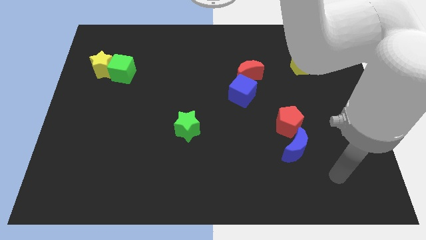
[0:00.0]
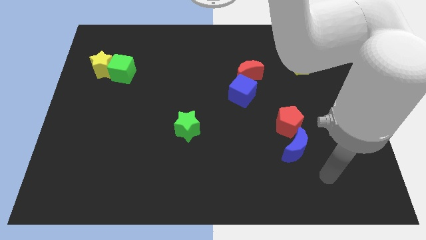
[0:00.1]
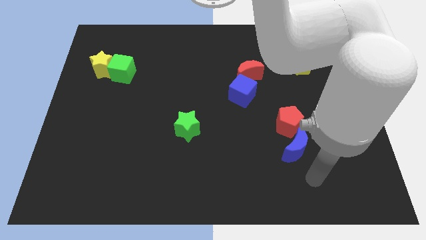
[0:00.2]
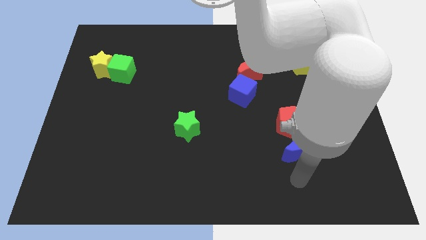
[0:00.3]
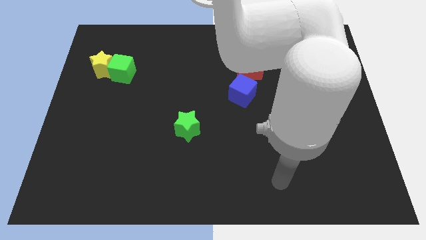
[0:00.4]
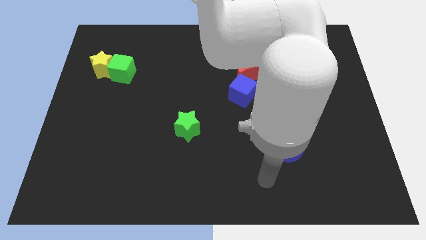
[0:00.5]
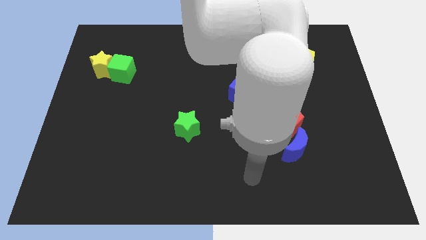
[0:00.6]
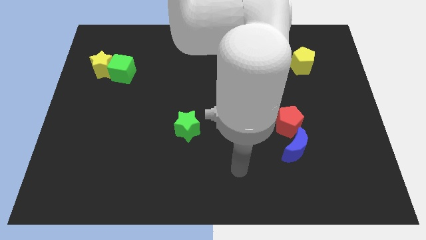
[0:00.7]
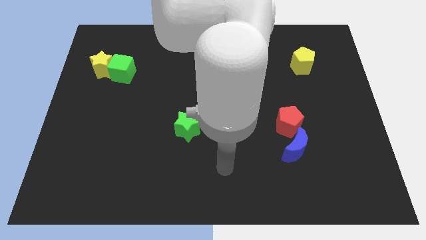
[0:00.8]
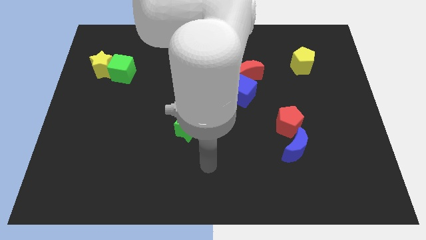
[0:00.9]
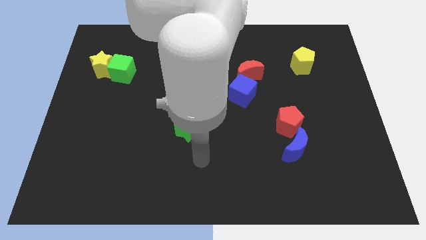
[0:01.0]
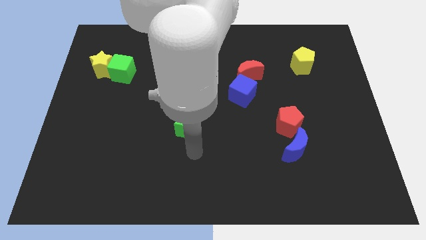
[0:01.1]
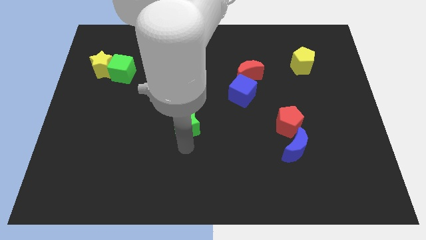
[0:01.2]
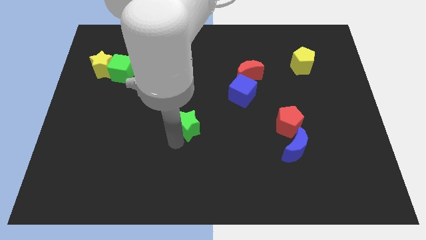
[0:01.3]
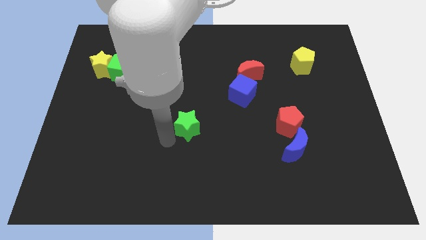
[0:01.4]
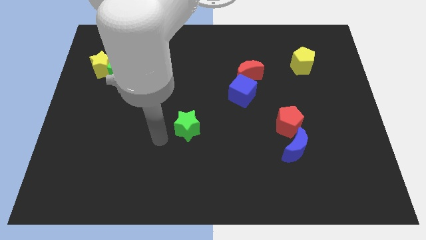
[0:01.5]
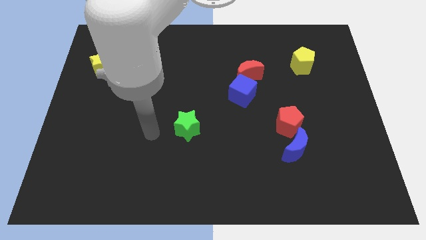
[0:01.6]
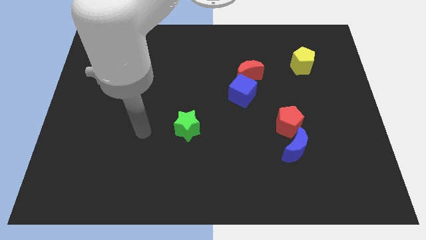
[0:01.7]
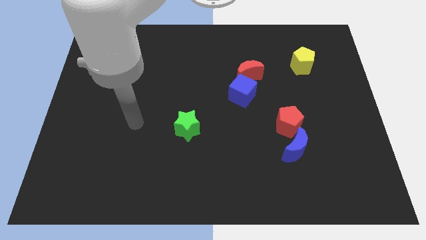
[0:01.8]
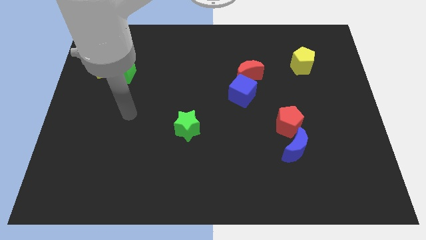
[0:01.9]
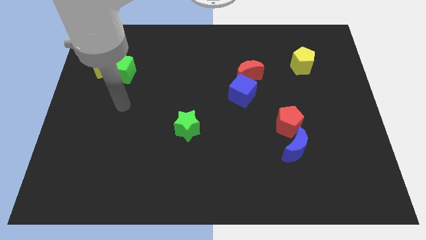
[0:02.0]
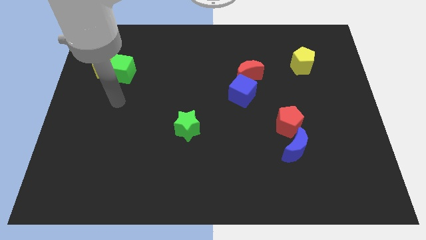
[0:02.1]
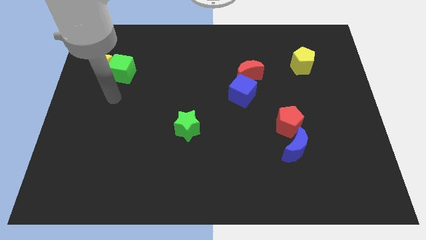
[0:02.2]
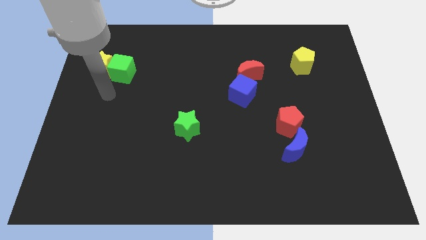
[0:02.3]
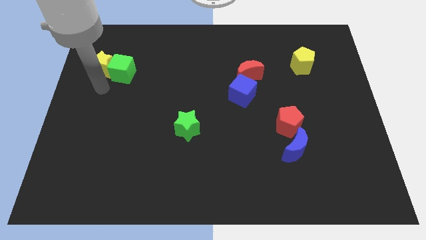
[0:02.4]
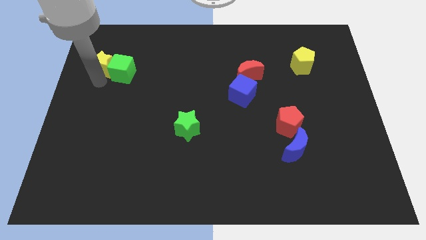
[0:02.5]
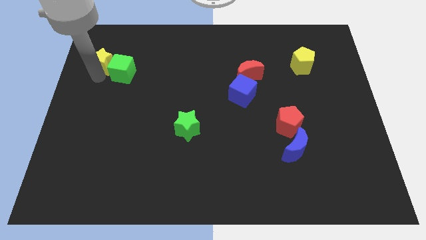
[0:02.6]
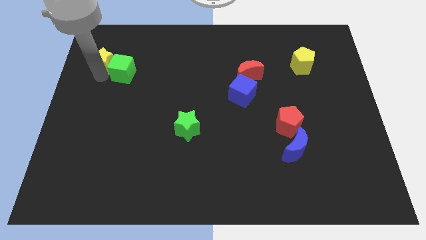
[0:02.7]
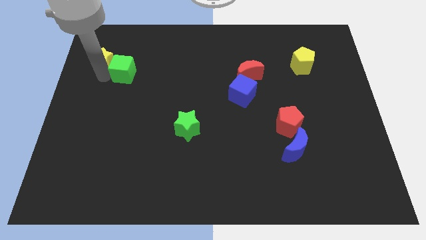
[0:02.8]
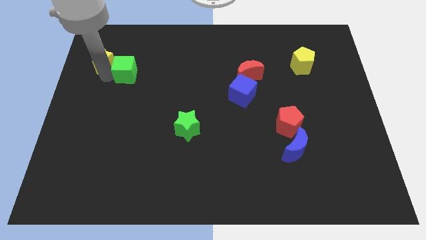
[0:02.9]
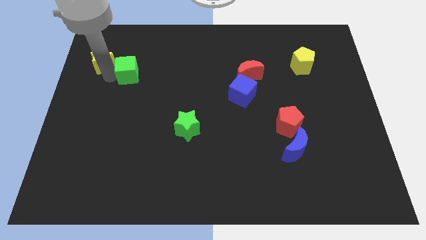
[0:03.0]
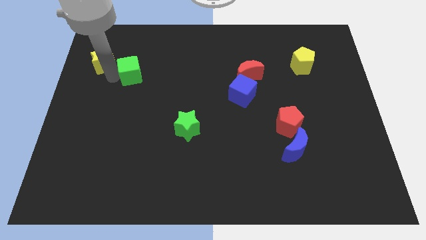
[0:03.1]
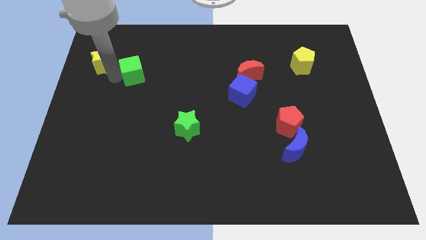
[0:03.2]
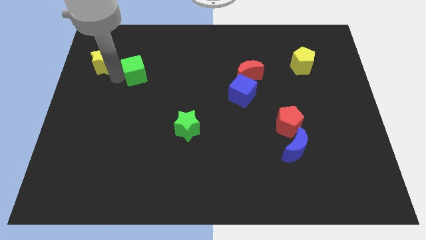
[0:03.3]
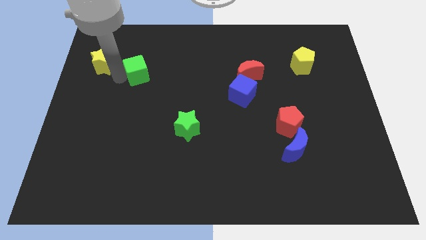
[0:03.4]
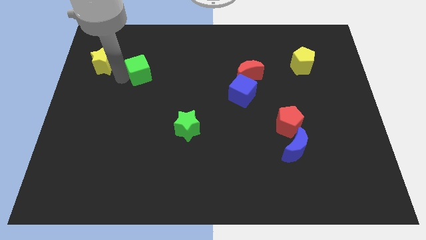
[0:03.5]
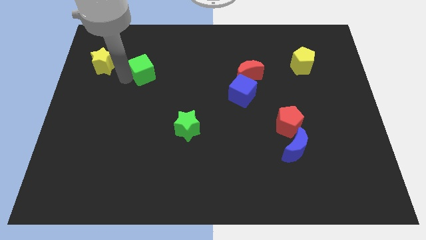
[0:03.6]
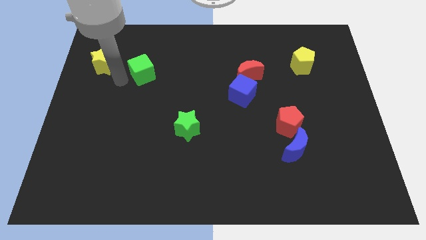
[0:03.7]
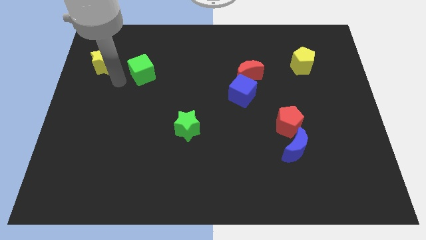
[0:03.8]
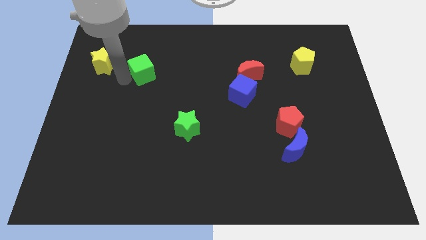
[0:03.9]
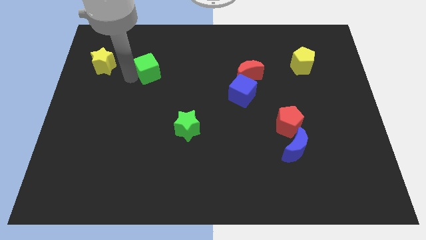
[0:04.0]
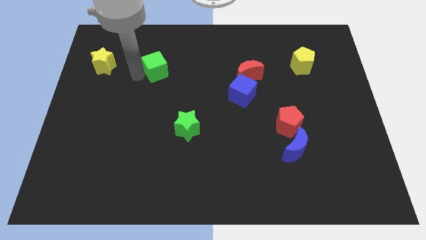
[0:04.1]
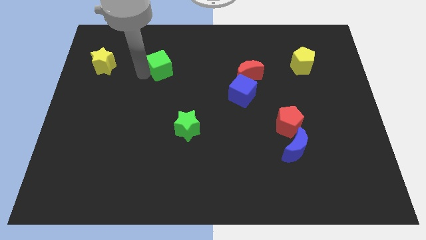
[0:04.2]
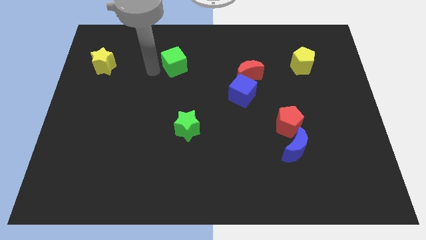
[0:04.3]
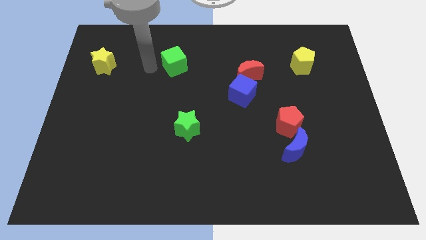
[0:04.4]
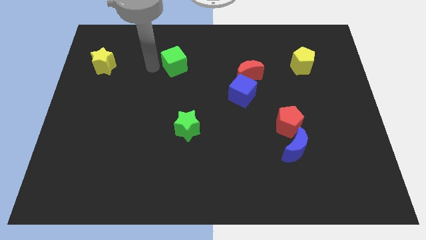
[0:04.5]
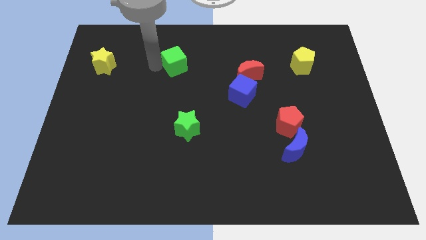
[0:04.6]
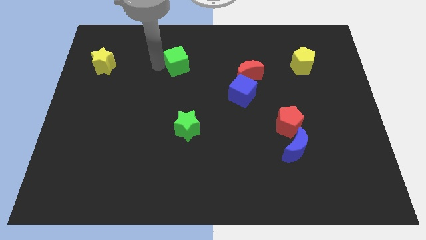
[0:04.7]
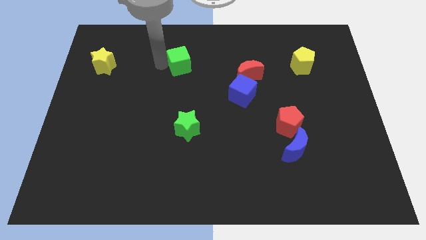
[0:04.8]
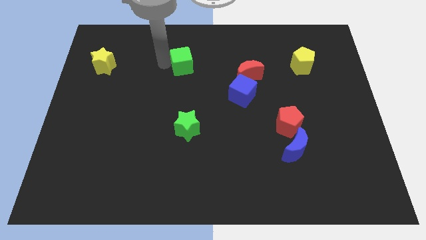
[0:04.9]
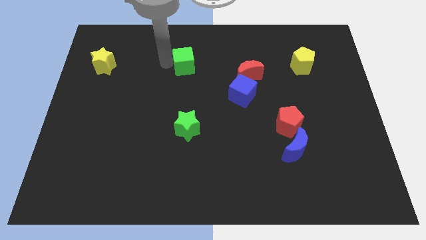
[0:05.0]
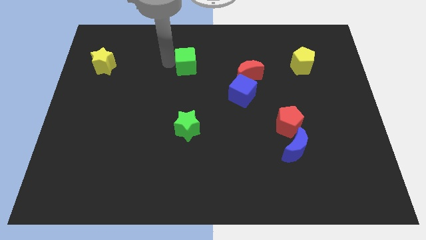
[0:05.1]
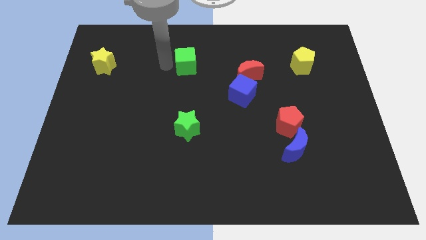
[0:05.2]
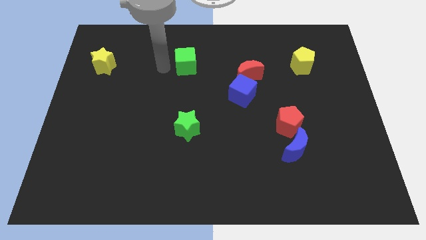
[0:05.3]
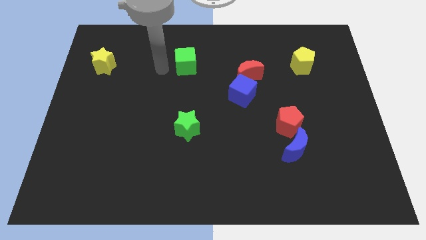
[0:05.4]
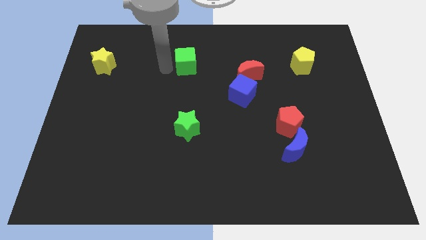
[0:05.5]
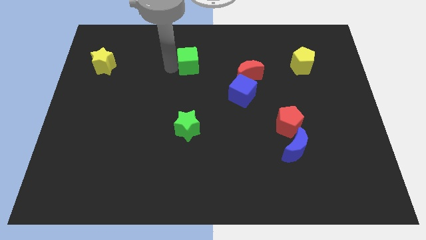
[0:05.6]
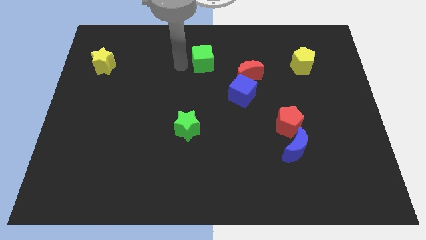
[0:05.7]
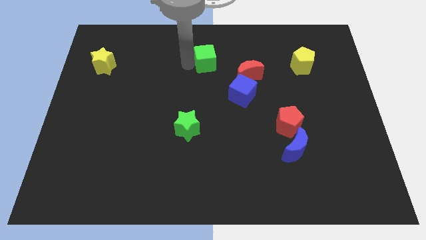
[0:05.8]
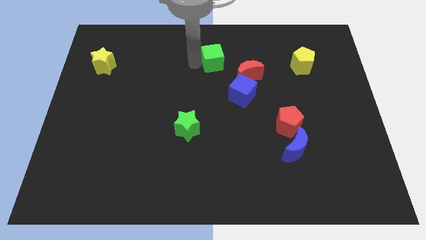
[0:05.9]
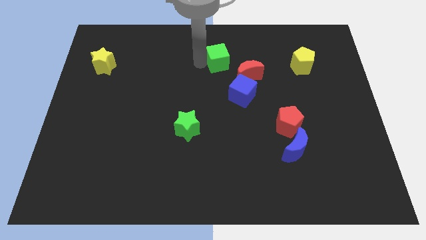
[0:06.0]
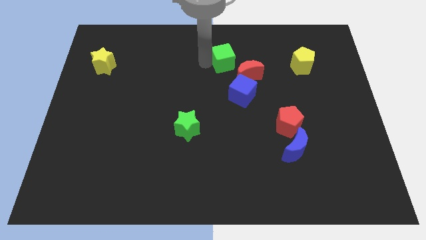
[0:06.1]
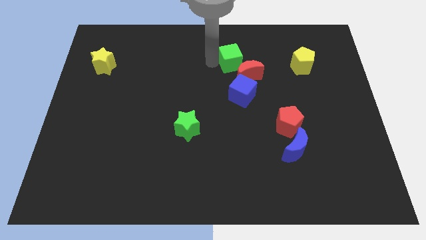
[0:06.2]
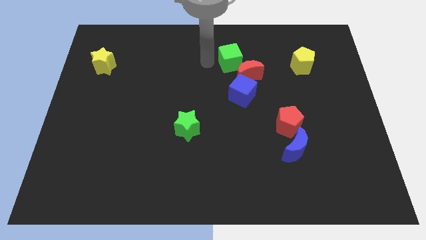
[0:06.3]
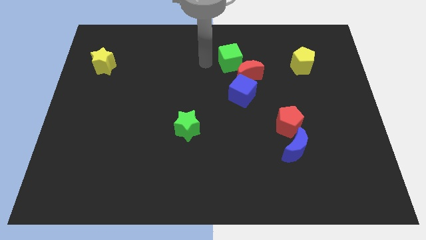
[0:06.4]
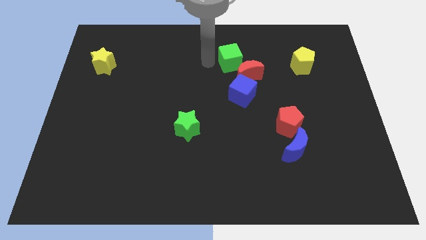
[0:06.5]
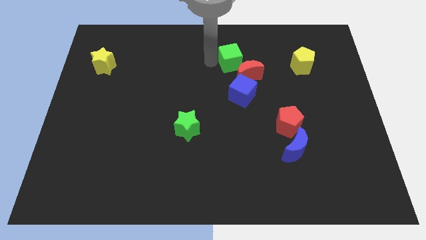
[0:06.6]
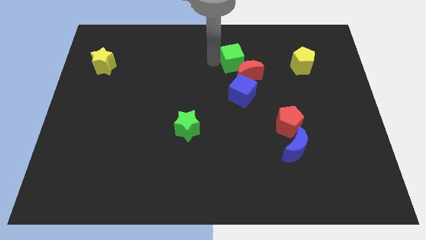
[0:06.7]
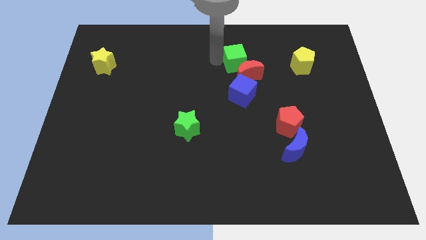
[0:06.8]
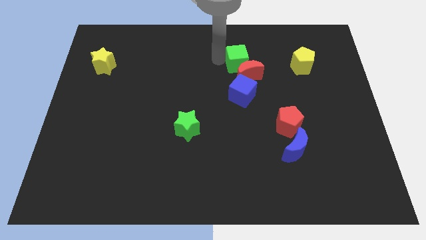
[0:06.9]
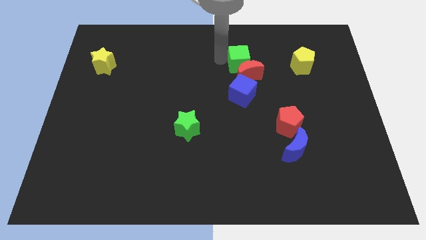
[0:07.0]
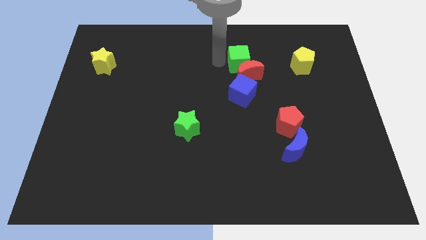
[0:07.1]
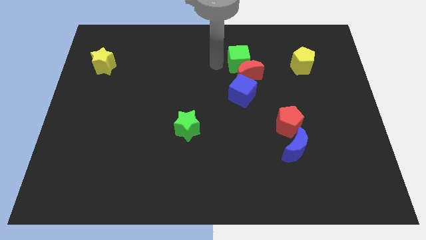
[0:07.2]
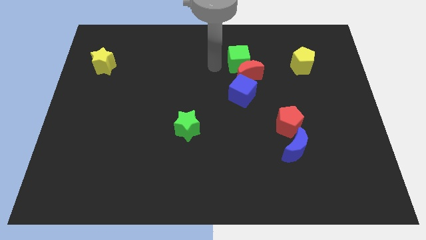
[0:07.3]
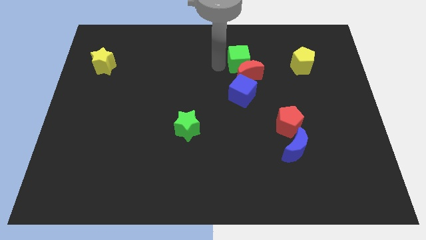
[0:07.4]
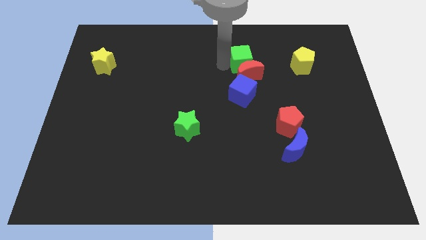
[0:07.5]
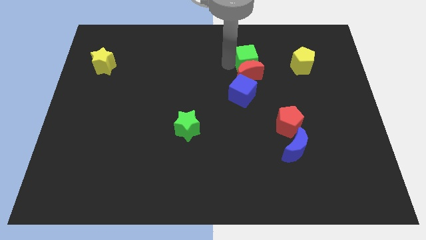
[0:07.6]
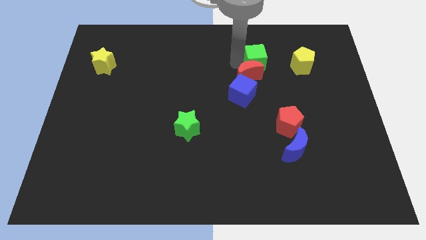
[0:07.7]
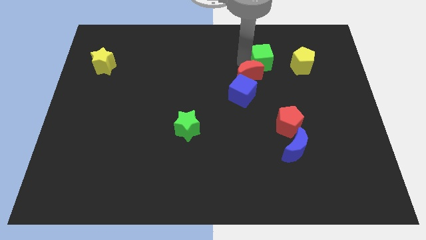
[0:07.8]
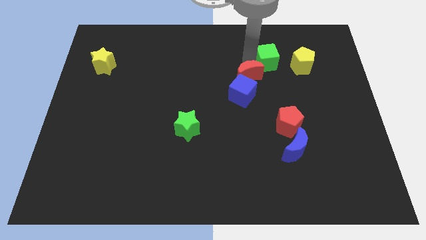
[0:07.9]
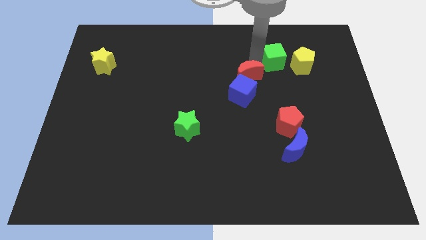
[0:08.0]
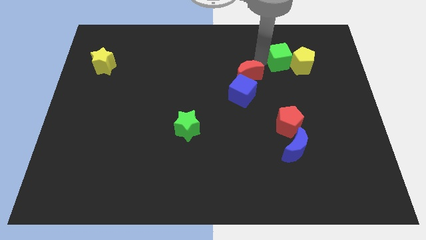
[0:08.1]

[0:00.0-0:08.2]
push the green cube close to the yellow pentagon
